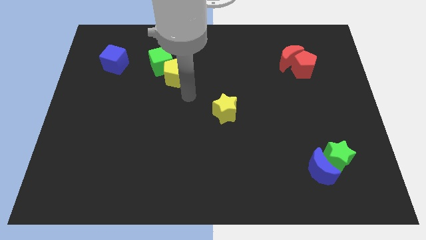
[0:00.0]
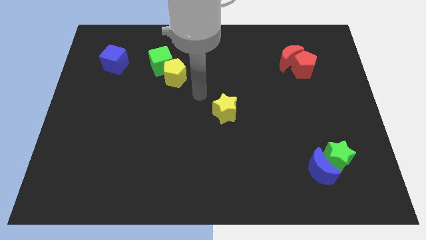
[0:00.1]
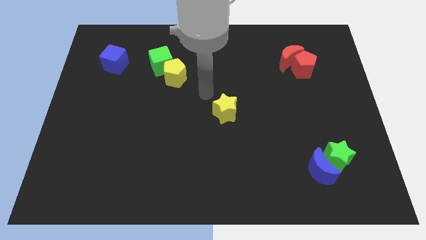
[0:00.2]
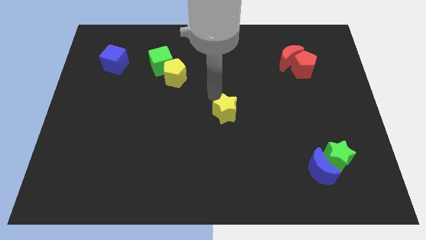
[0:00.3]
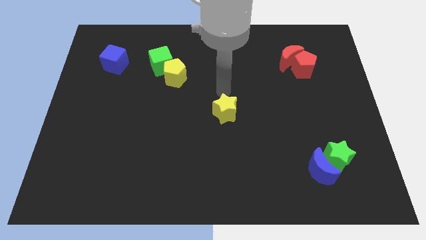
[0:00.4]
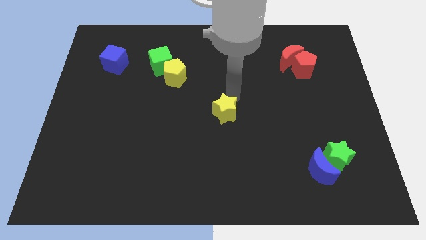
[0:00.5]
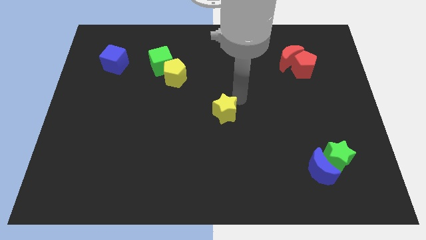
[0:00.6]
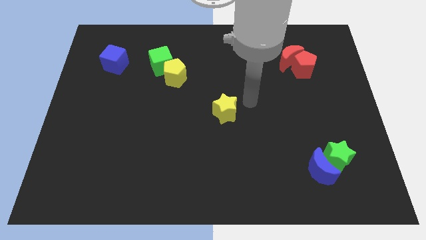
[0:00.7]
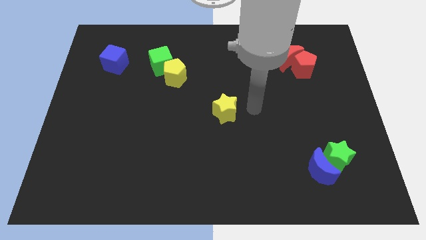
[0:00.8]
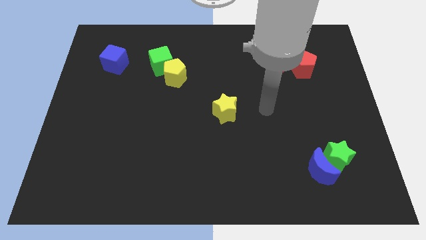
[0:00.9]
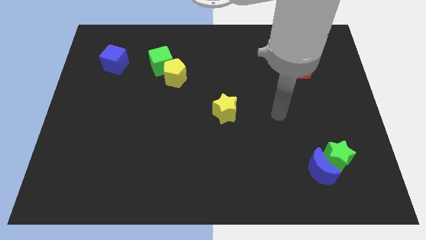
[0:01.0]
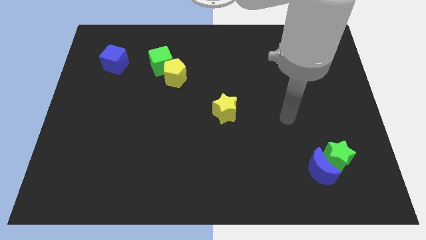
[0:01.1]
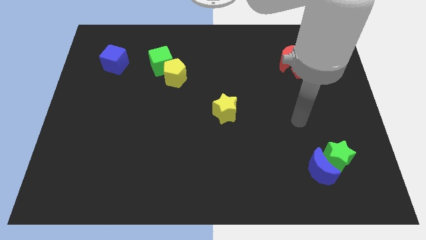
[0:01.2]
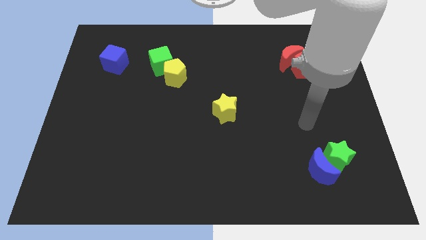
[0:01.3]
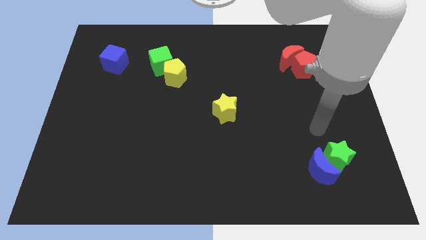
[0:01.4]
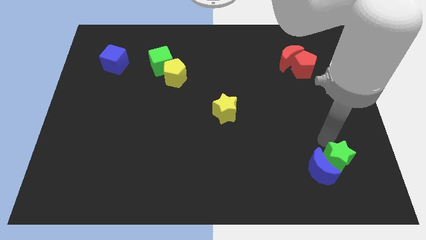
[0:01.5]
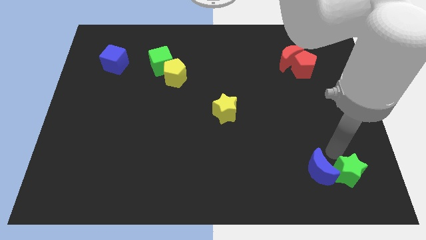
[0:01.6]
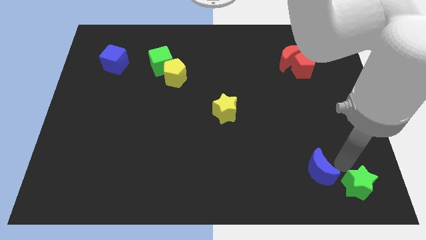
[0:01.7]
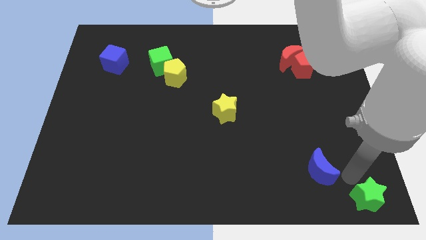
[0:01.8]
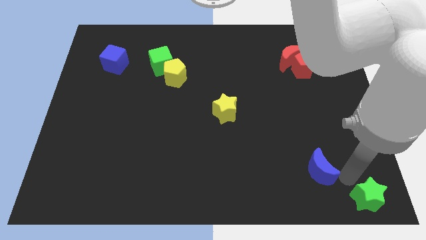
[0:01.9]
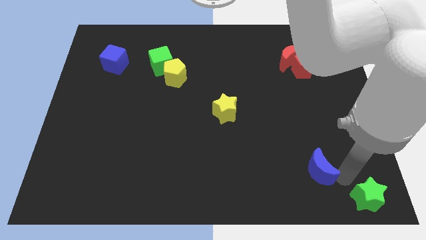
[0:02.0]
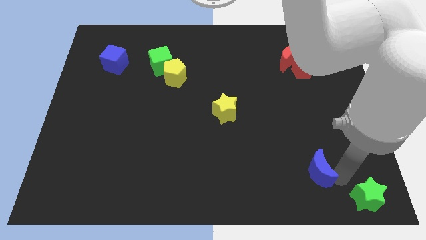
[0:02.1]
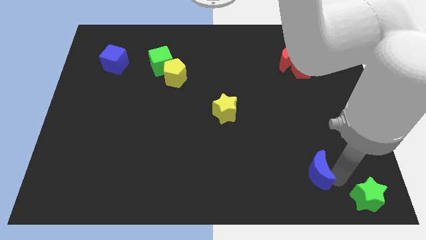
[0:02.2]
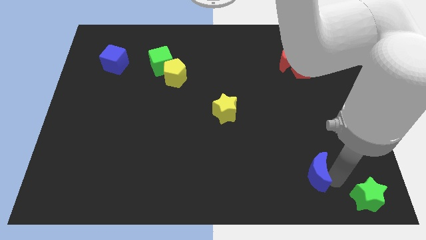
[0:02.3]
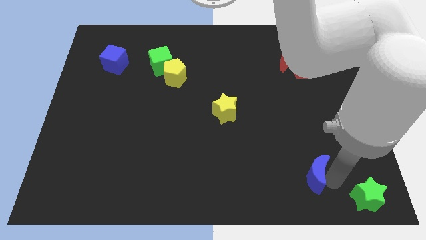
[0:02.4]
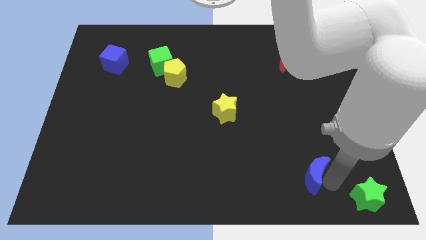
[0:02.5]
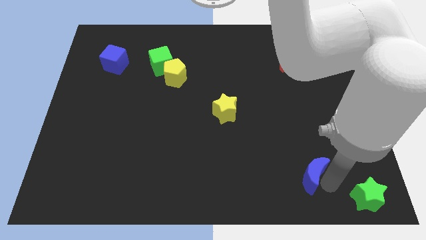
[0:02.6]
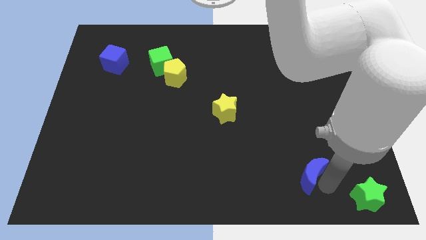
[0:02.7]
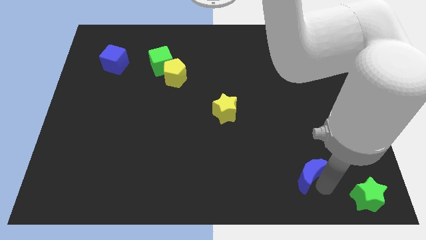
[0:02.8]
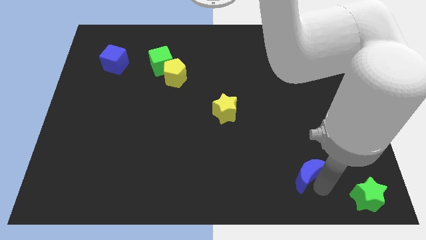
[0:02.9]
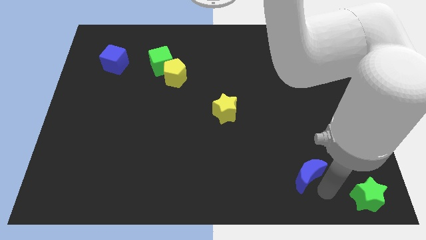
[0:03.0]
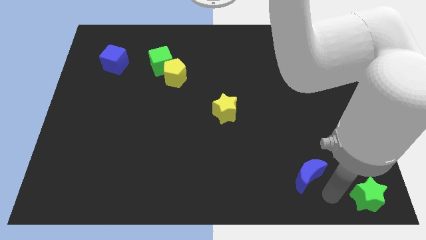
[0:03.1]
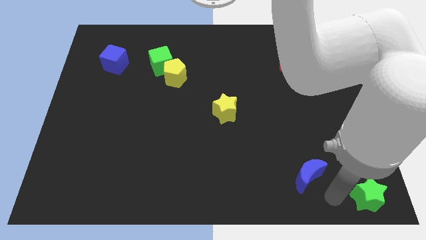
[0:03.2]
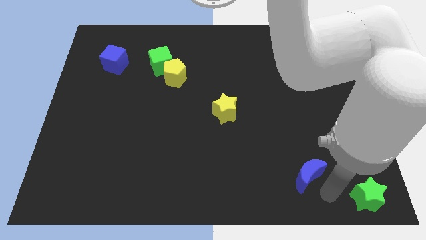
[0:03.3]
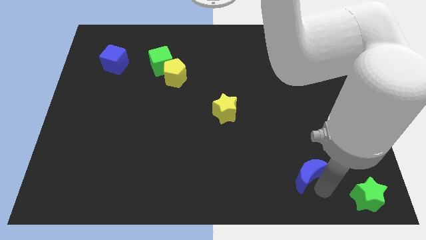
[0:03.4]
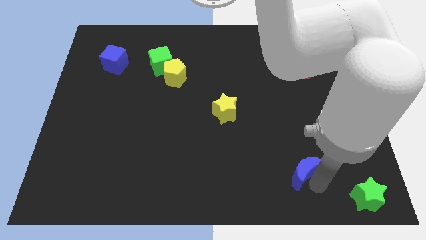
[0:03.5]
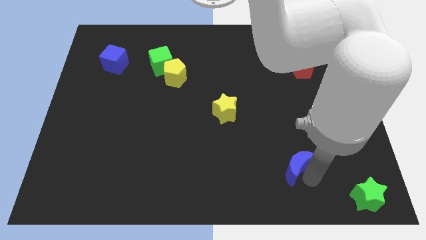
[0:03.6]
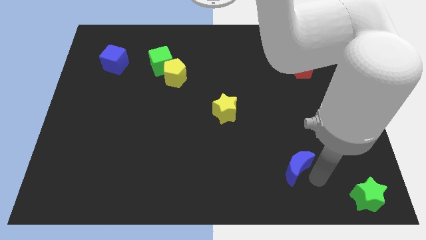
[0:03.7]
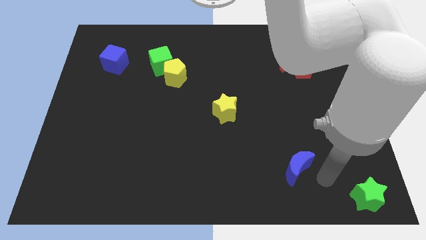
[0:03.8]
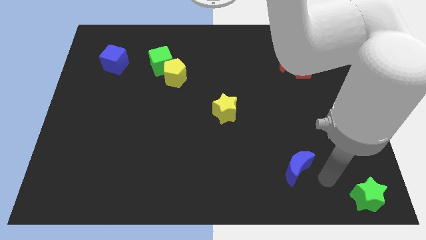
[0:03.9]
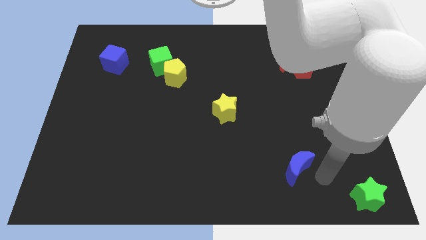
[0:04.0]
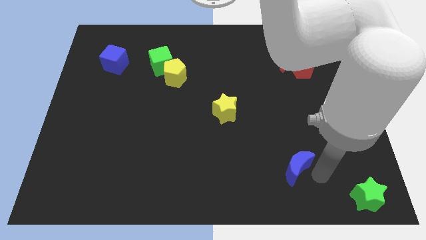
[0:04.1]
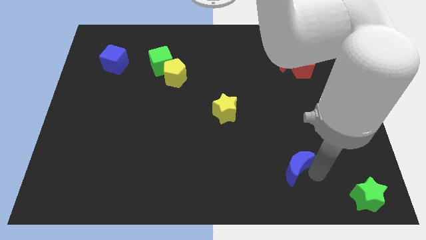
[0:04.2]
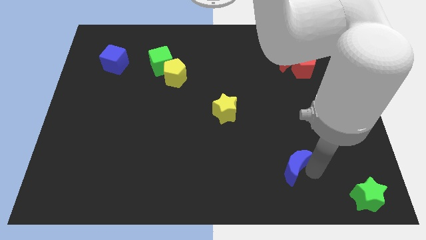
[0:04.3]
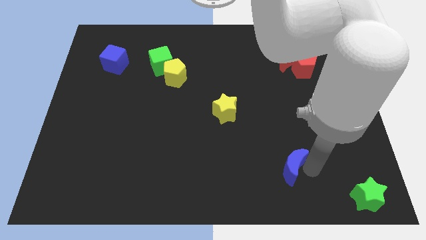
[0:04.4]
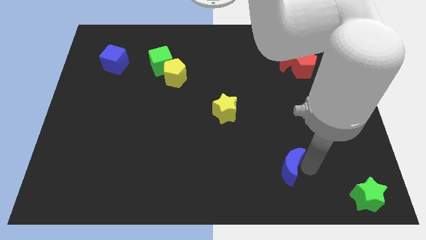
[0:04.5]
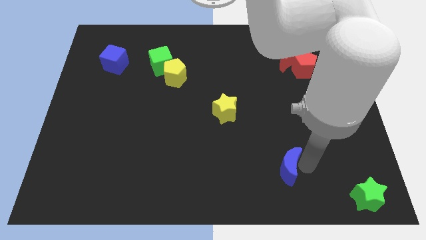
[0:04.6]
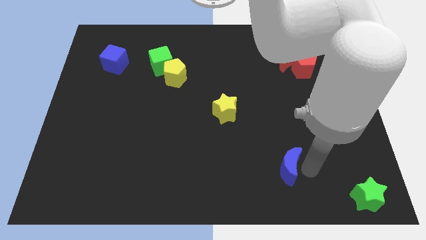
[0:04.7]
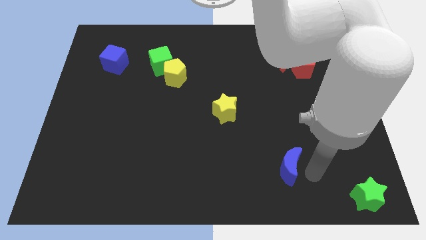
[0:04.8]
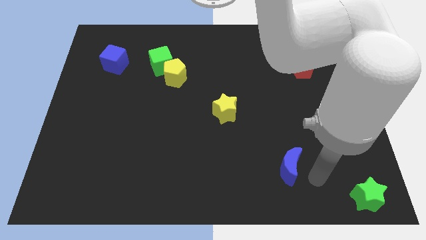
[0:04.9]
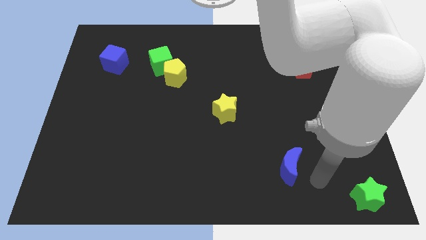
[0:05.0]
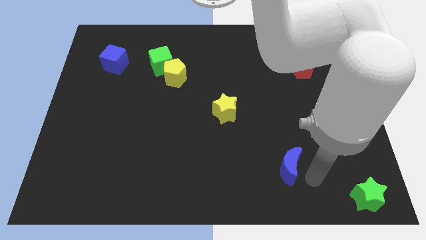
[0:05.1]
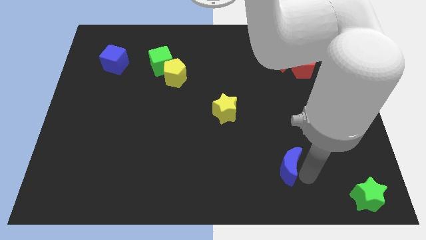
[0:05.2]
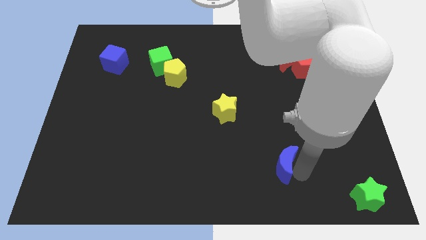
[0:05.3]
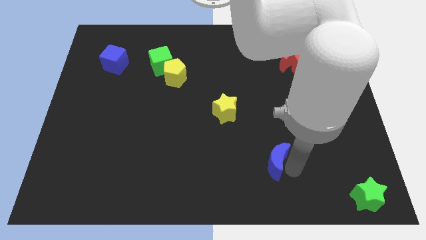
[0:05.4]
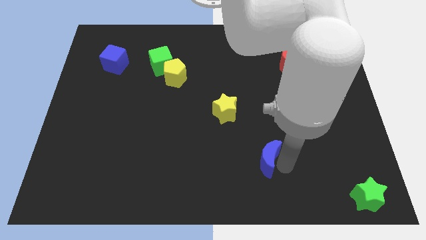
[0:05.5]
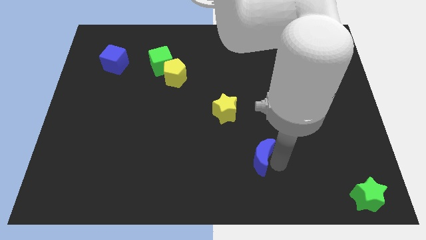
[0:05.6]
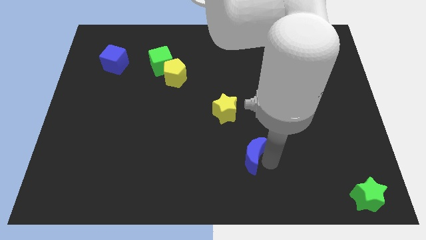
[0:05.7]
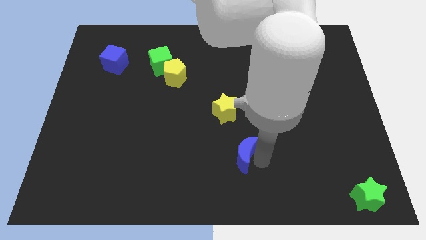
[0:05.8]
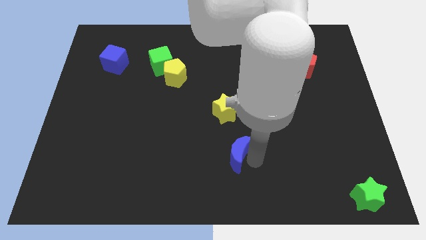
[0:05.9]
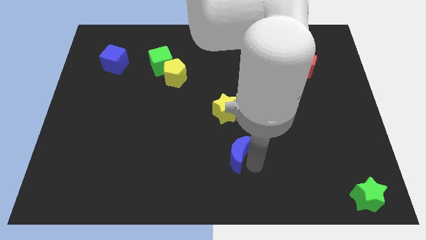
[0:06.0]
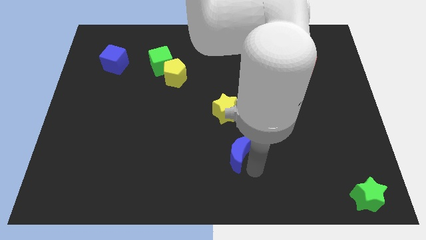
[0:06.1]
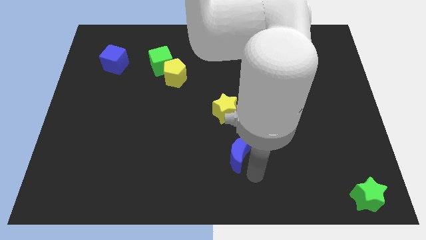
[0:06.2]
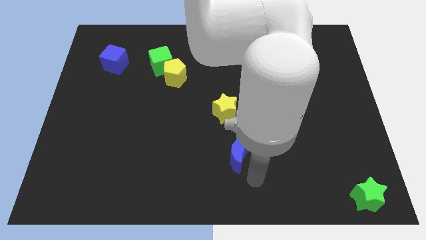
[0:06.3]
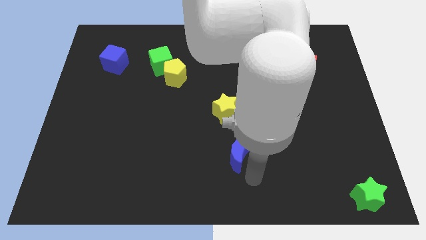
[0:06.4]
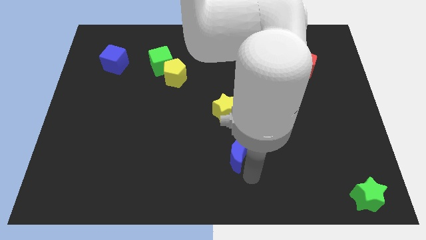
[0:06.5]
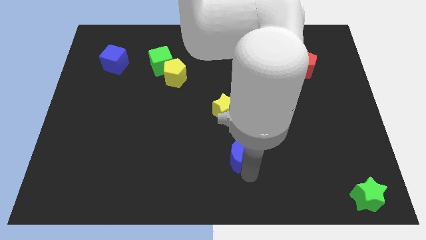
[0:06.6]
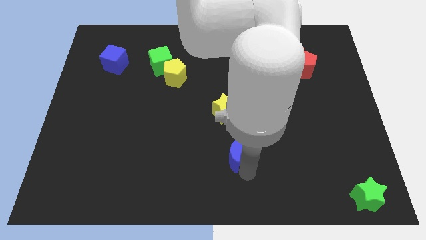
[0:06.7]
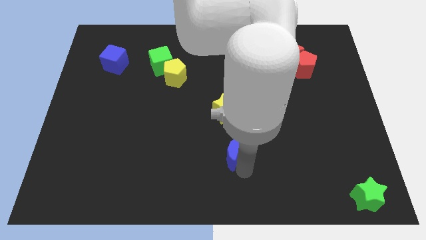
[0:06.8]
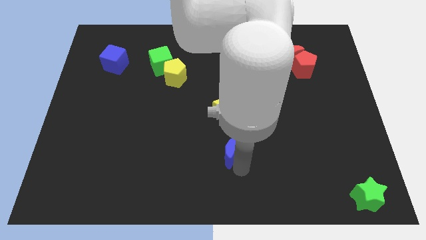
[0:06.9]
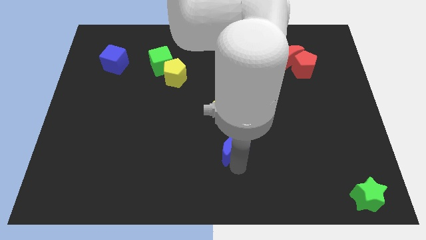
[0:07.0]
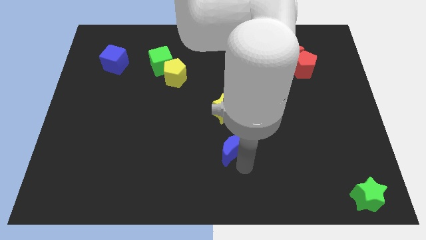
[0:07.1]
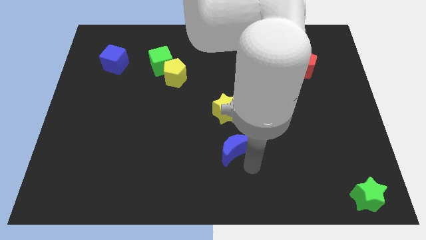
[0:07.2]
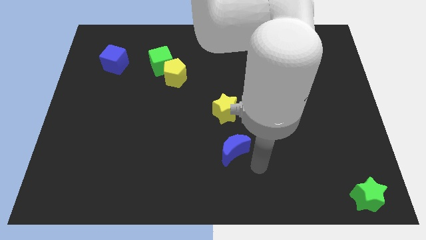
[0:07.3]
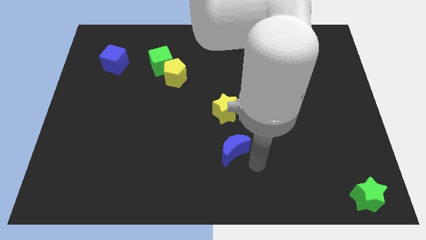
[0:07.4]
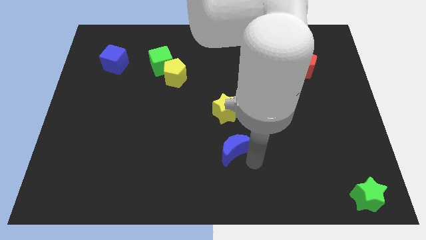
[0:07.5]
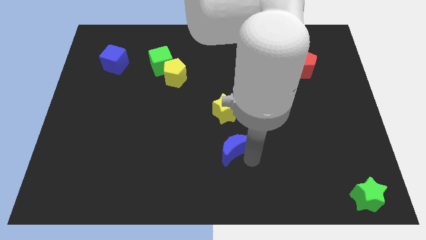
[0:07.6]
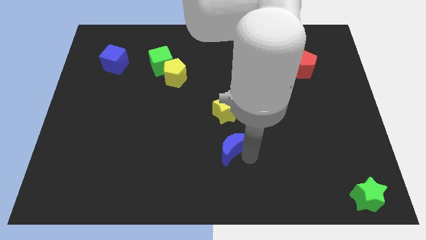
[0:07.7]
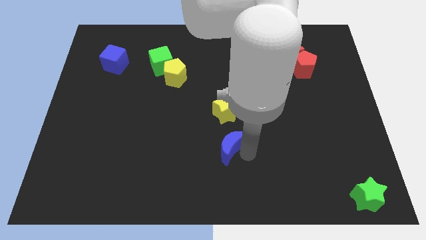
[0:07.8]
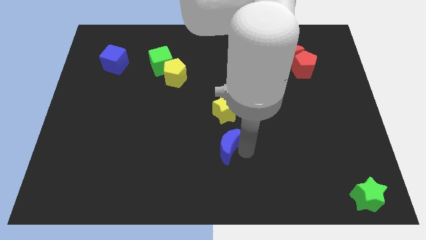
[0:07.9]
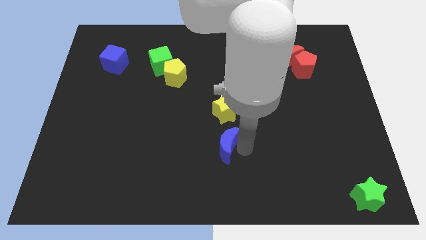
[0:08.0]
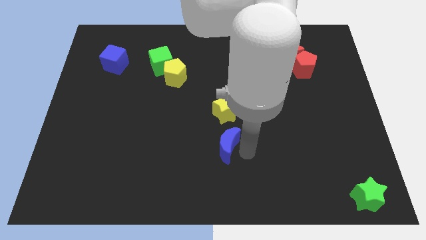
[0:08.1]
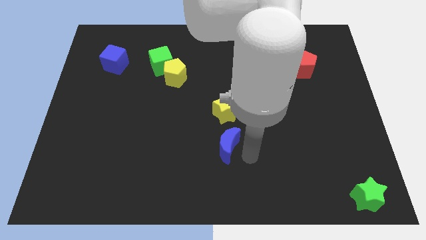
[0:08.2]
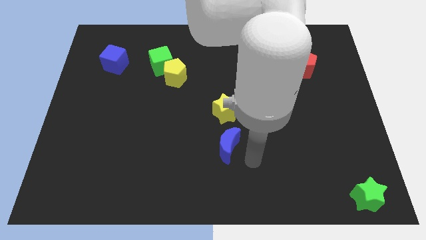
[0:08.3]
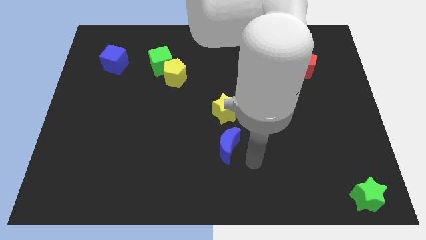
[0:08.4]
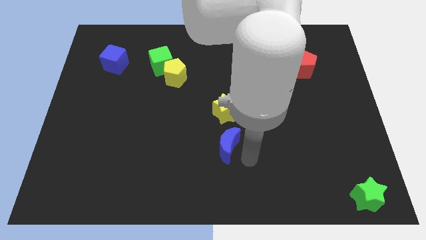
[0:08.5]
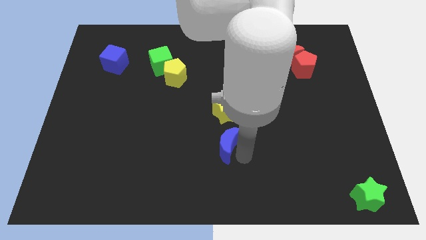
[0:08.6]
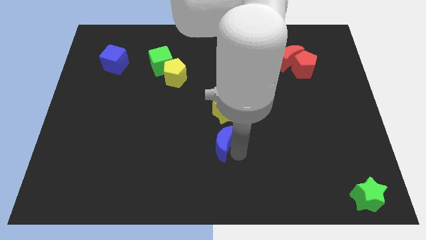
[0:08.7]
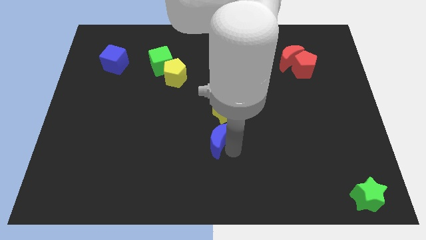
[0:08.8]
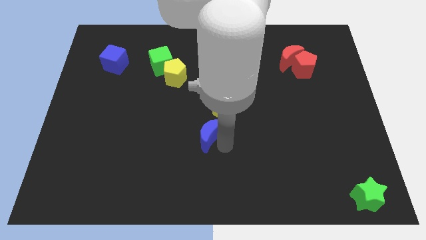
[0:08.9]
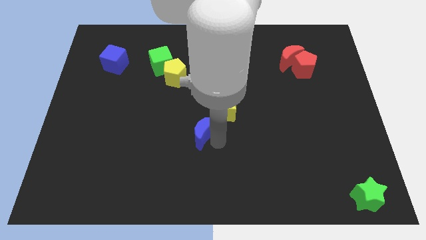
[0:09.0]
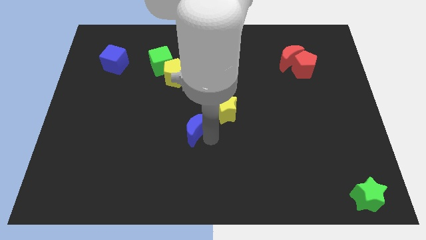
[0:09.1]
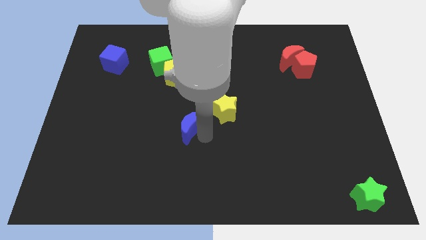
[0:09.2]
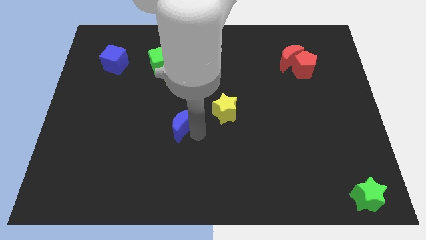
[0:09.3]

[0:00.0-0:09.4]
push the blue moon to the bottom of the yellow pentagon
